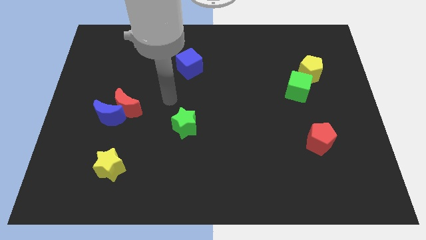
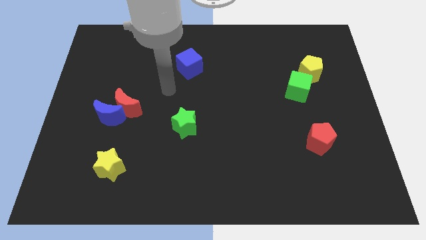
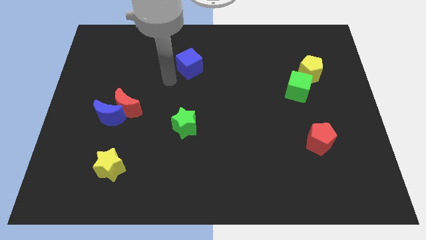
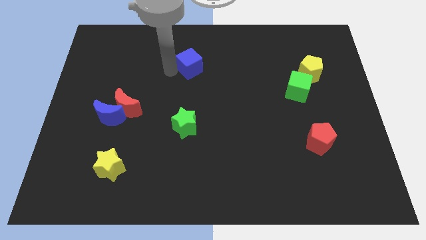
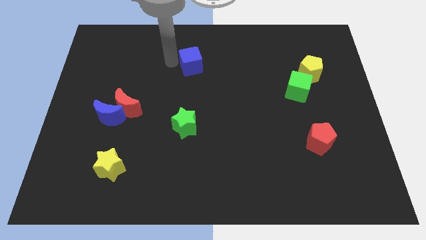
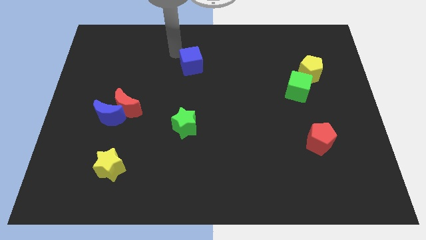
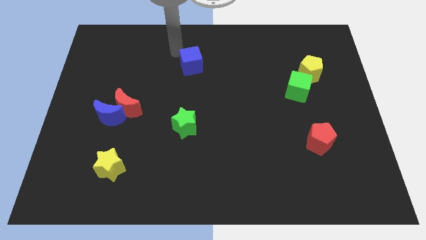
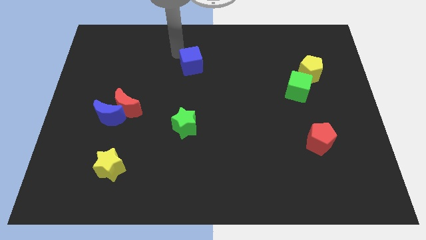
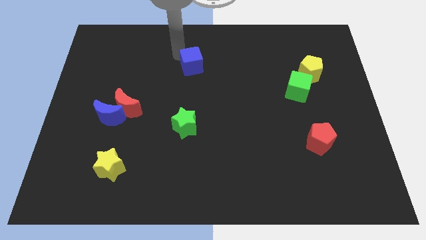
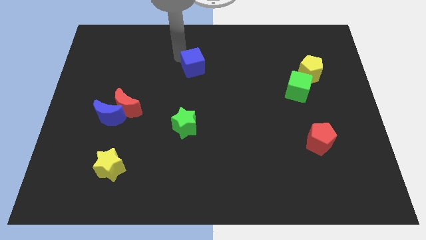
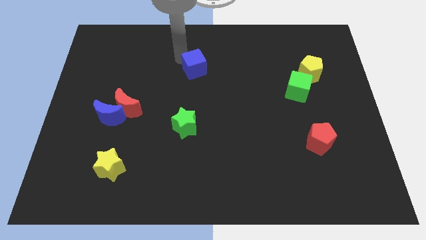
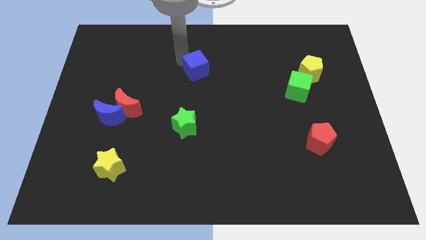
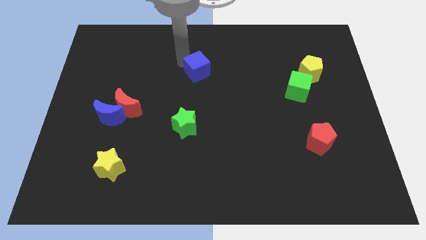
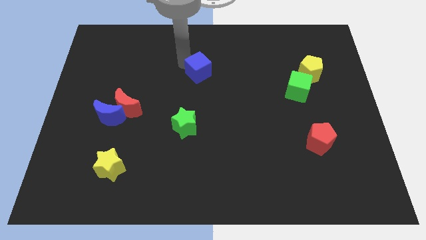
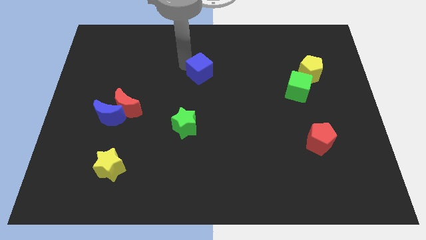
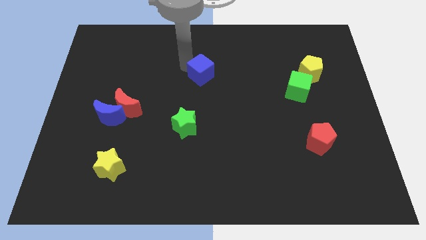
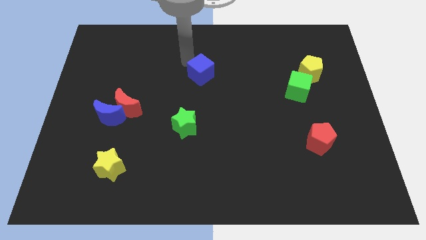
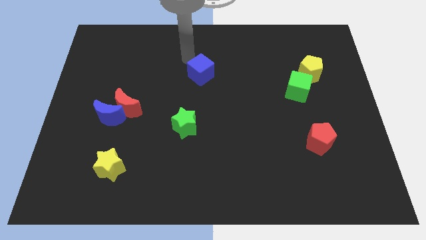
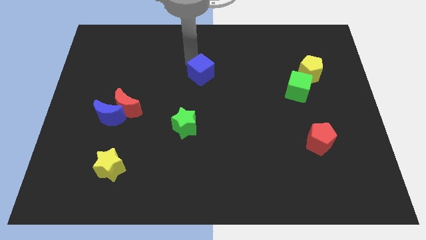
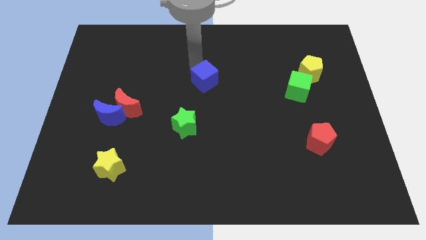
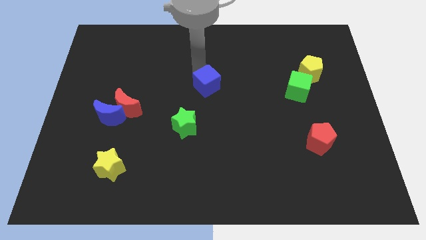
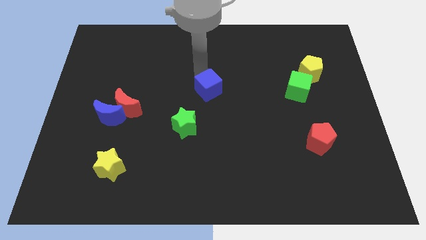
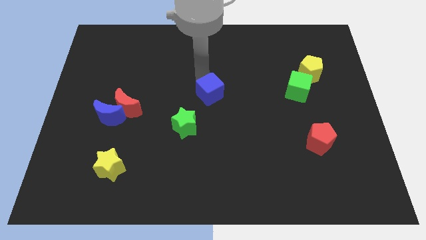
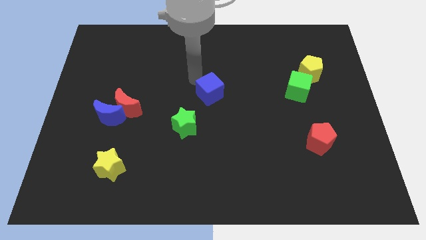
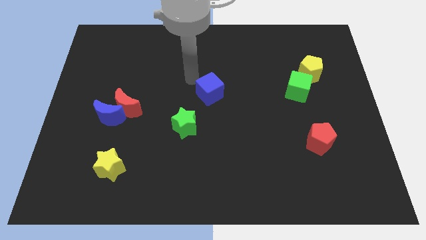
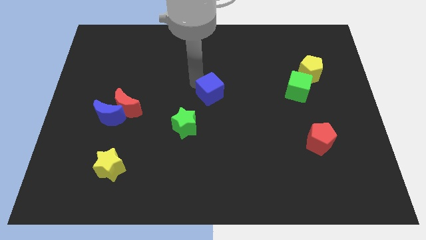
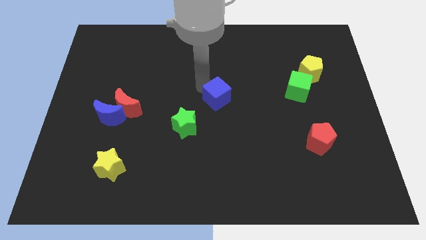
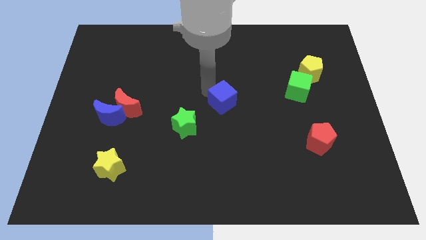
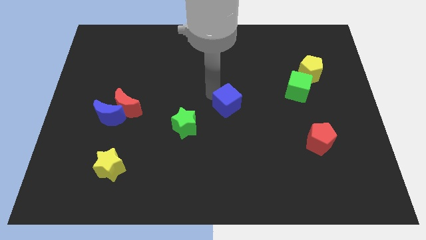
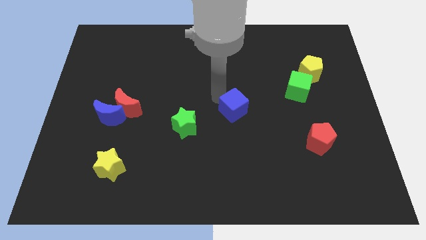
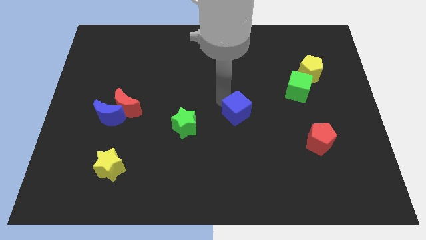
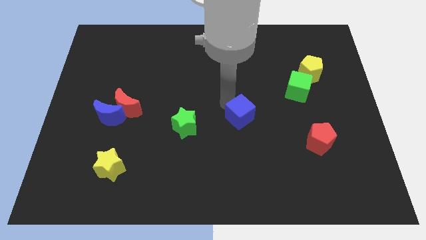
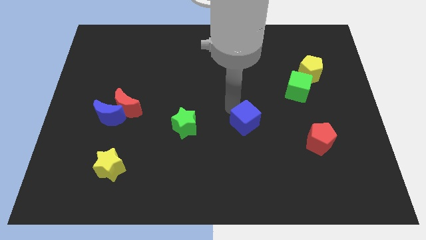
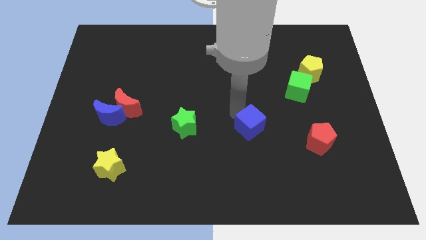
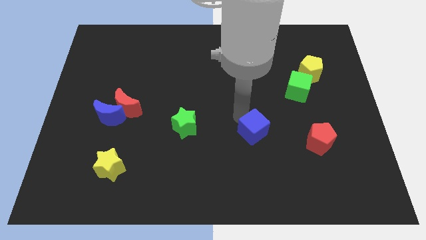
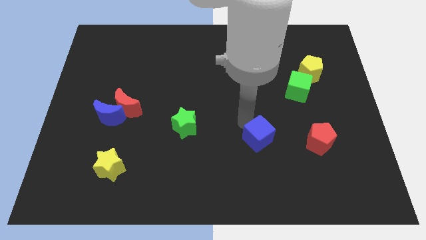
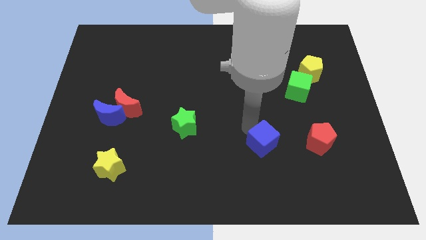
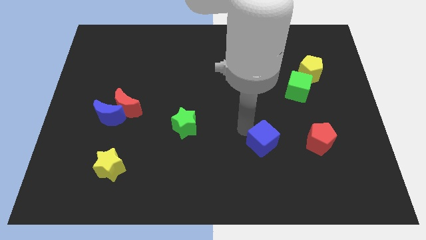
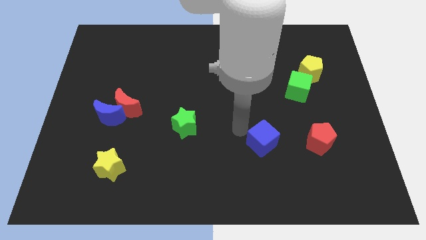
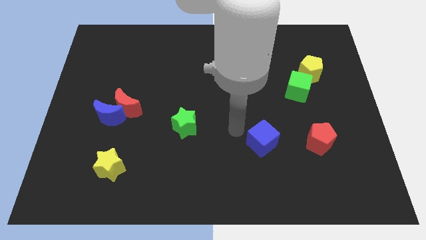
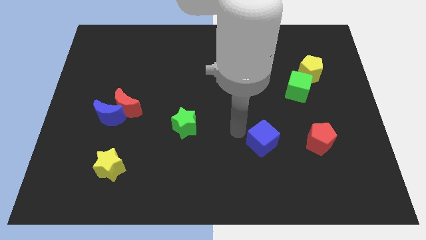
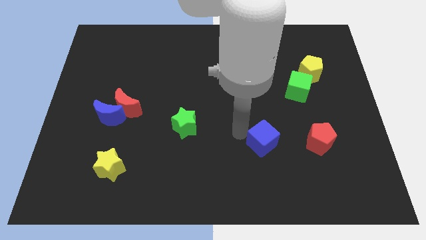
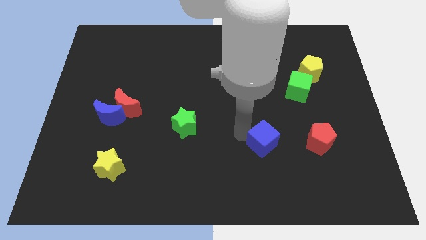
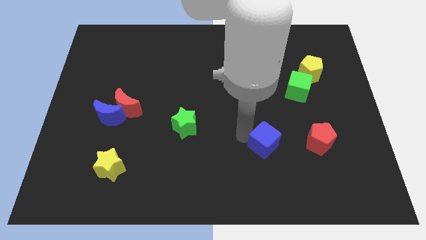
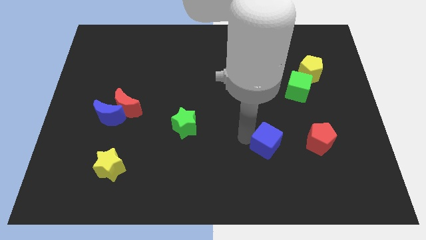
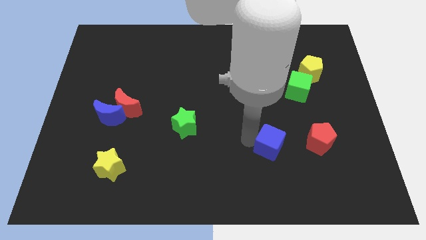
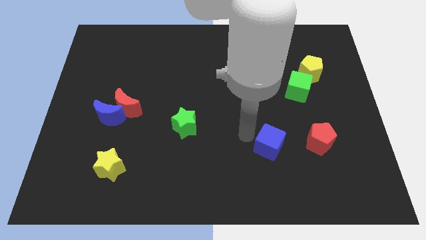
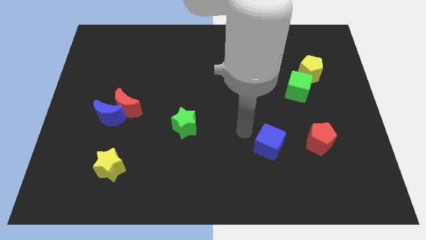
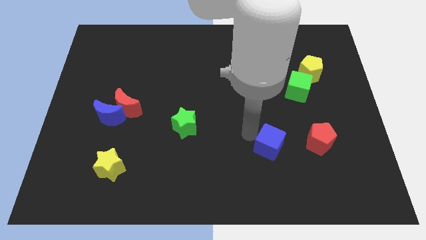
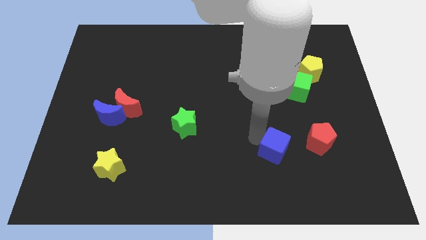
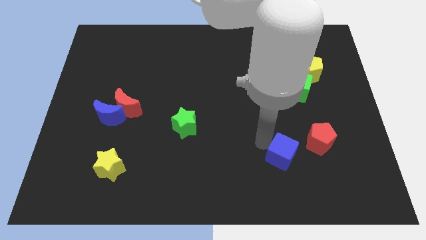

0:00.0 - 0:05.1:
push the blue cube diagonally down and to the left of the red pentagon

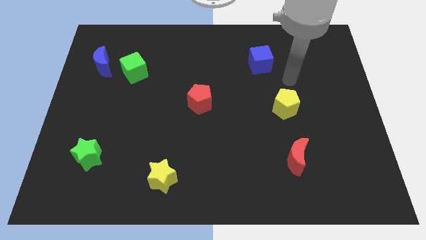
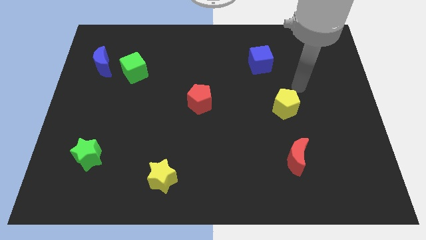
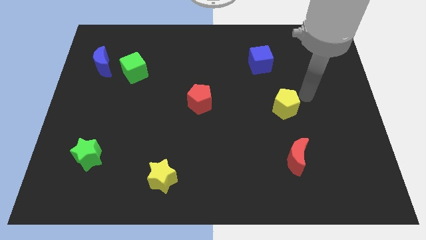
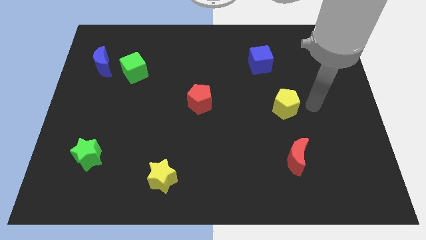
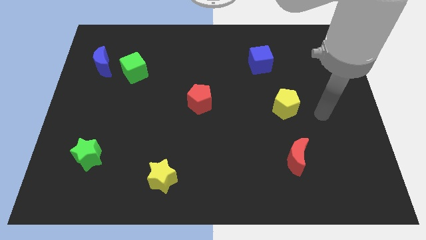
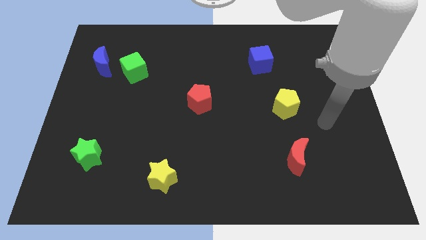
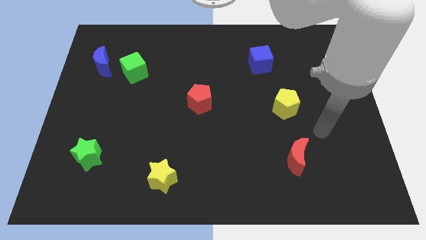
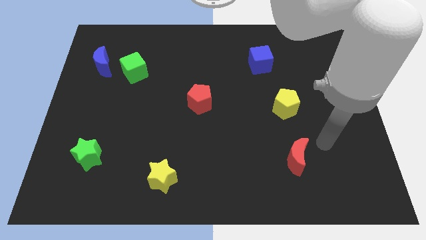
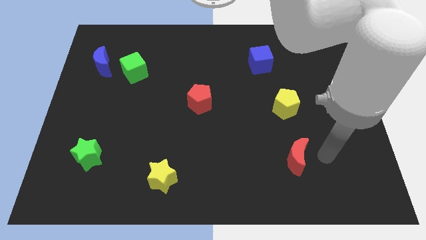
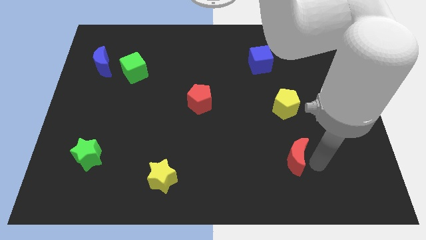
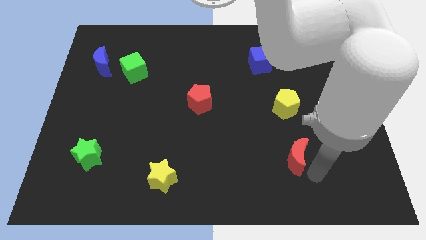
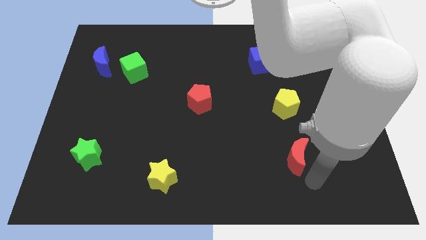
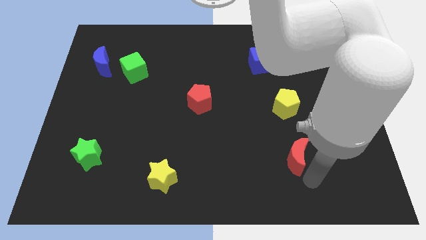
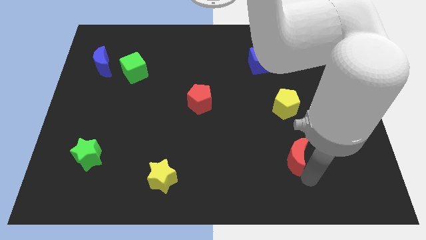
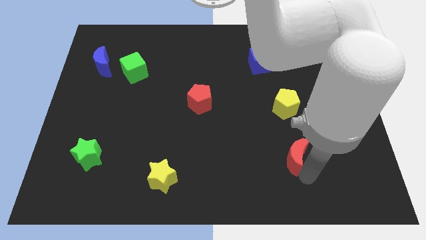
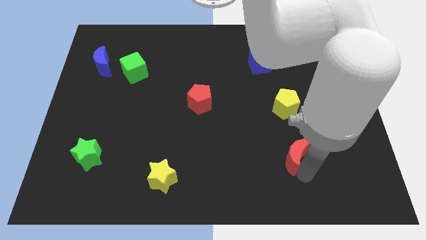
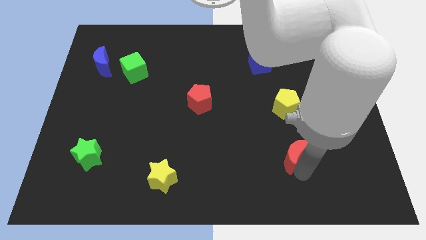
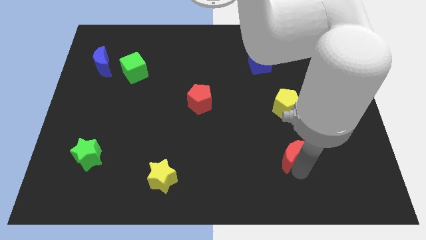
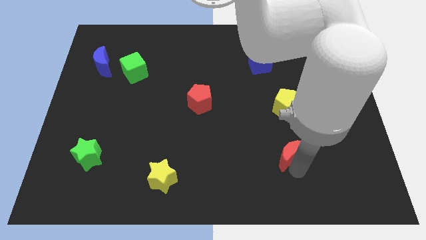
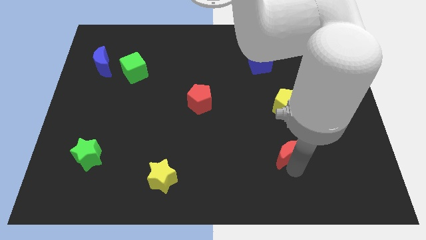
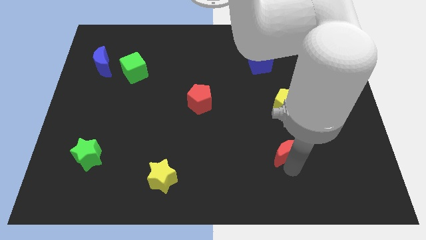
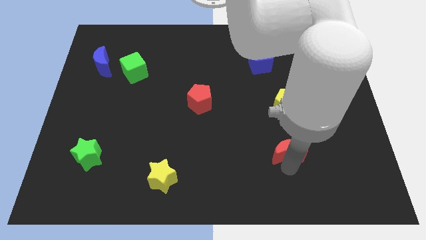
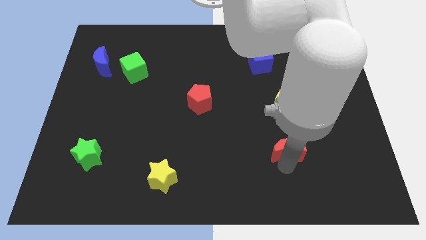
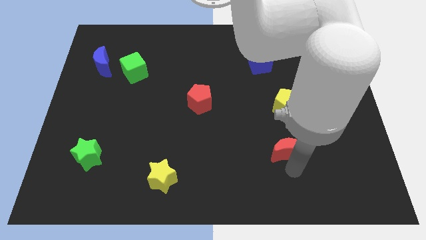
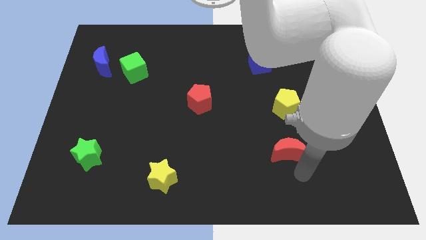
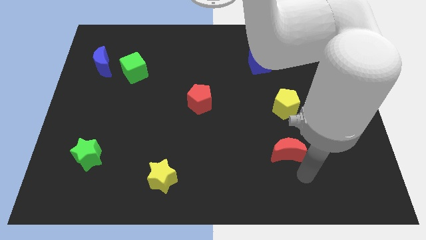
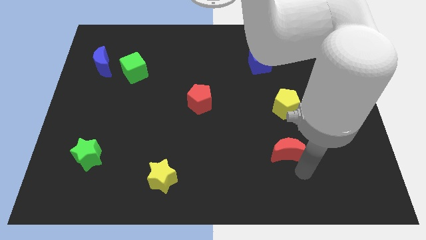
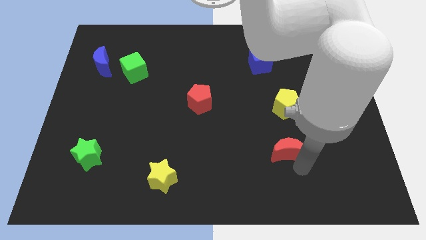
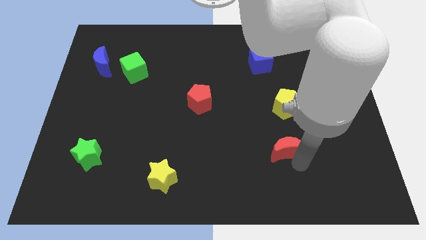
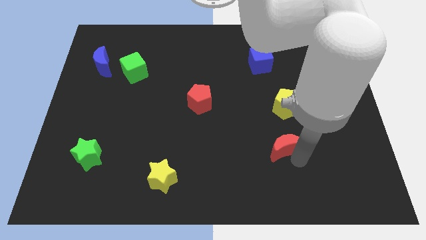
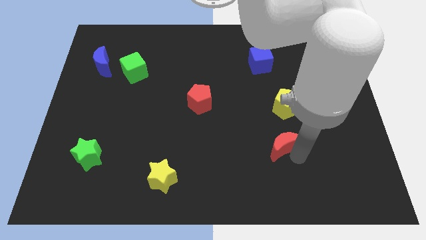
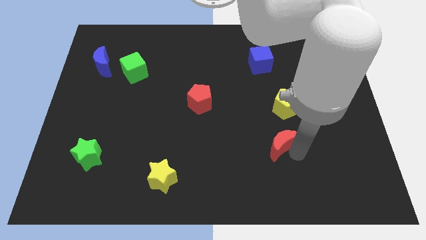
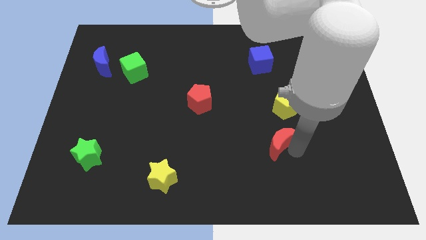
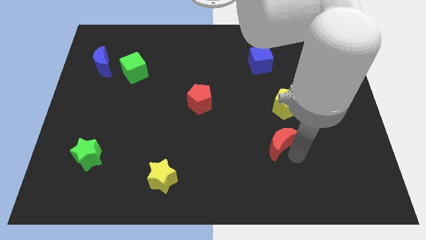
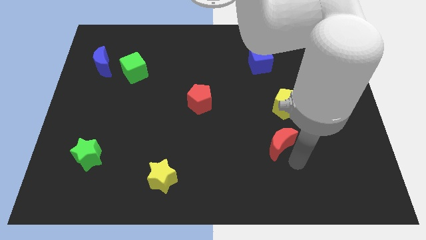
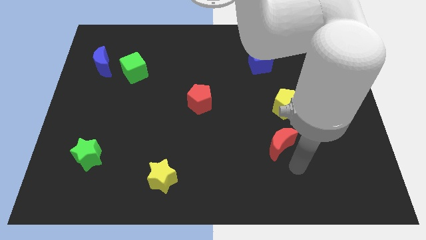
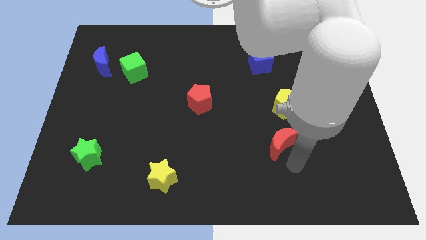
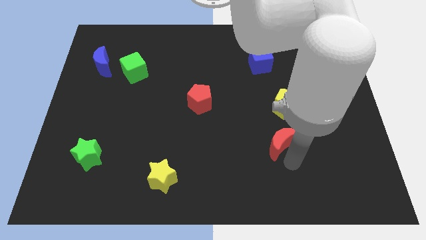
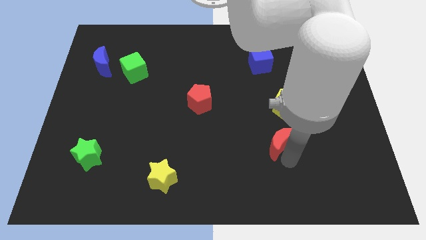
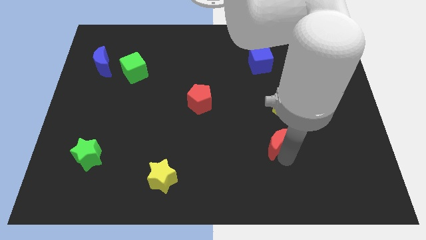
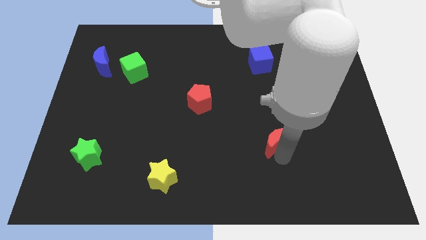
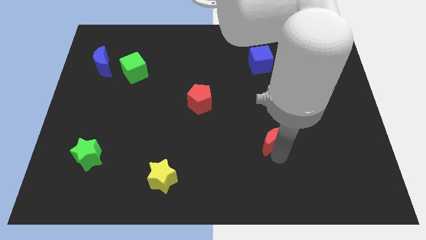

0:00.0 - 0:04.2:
push the red moon diagonally down and to the left of the yellow pentagon
